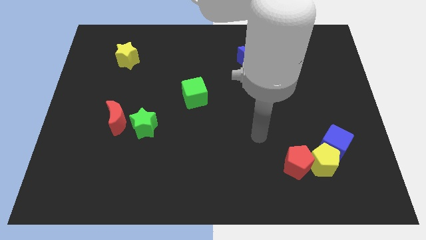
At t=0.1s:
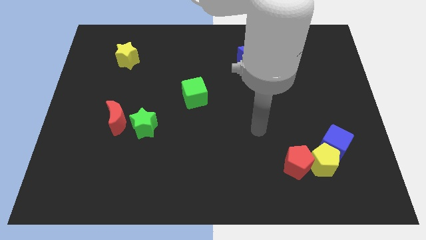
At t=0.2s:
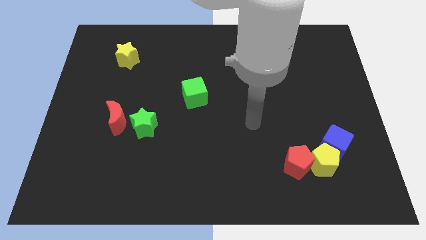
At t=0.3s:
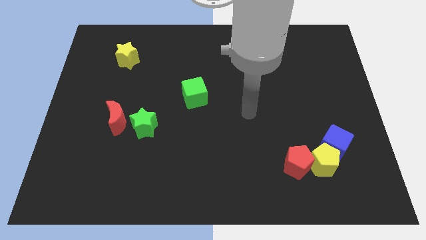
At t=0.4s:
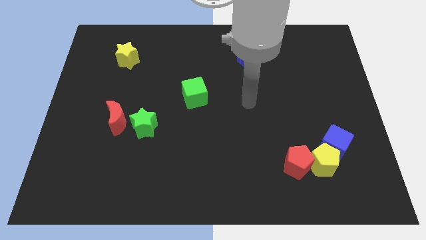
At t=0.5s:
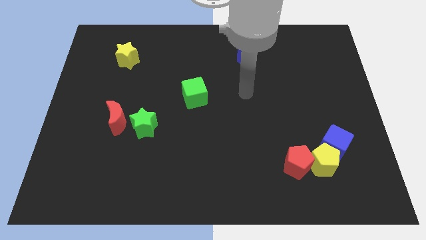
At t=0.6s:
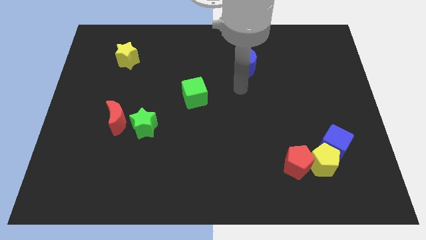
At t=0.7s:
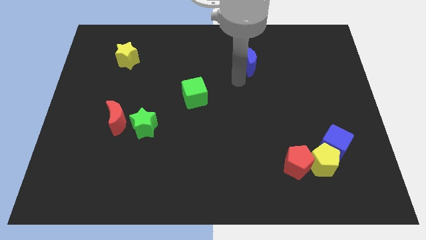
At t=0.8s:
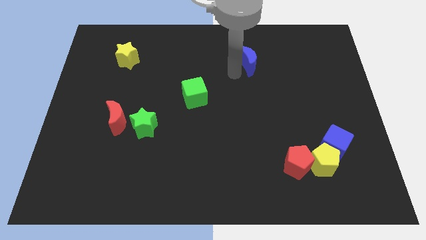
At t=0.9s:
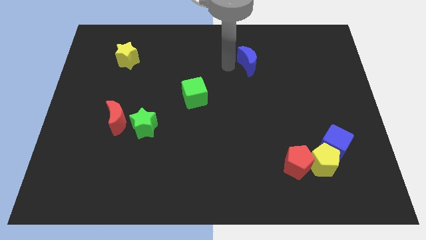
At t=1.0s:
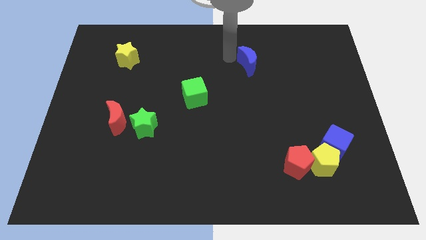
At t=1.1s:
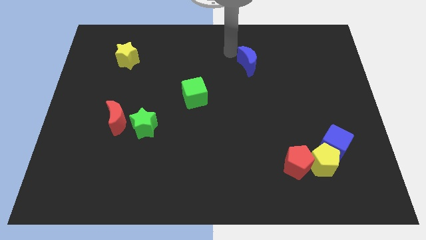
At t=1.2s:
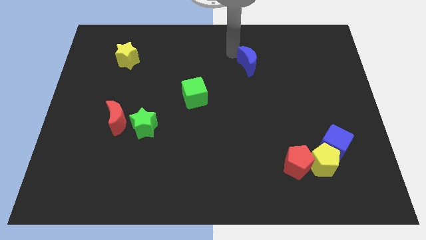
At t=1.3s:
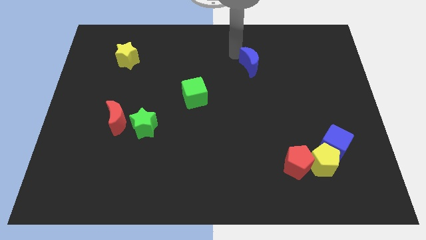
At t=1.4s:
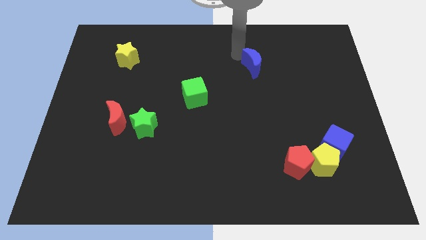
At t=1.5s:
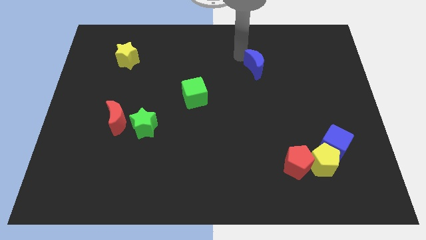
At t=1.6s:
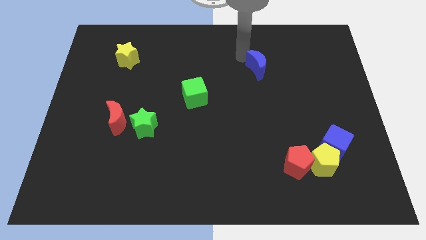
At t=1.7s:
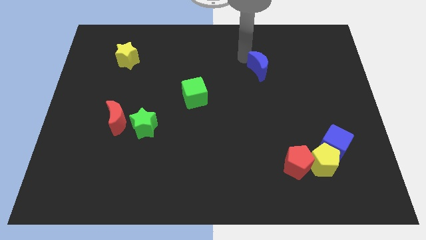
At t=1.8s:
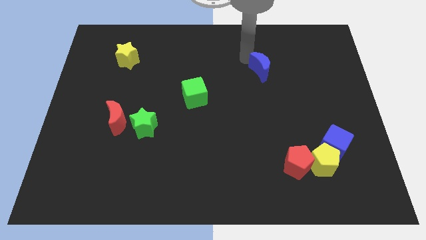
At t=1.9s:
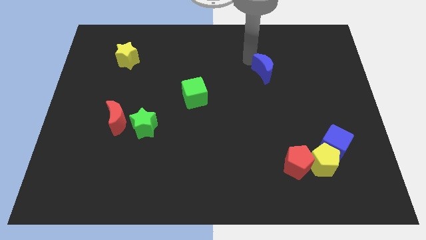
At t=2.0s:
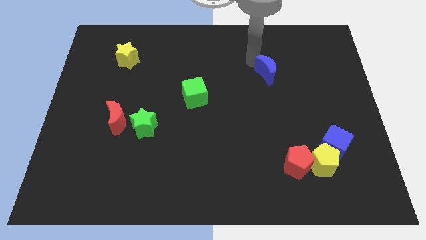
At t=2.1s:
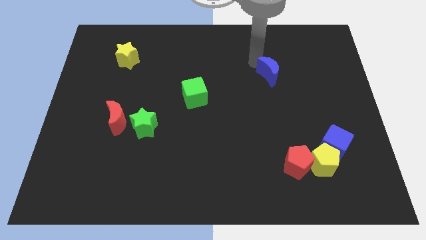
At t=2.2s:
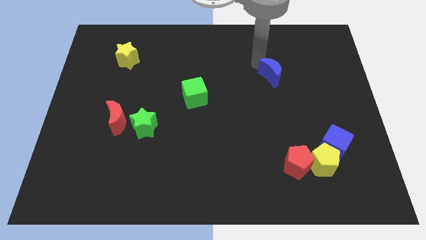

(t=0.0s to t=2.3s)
move the blue moon down and to the right a bit

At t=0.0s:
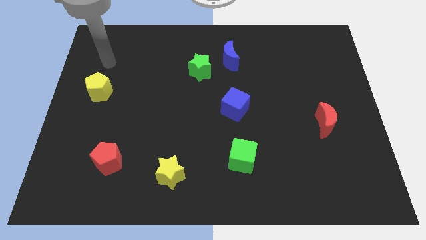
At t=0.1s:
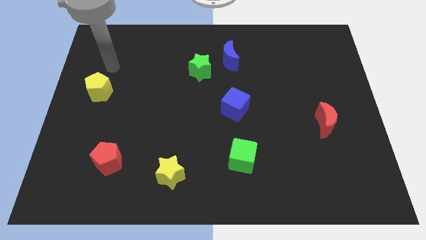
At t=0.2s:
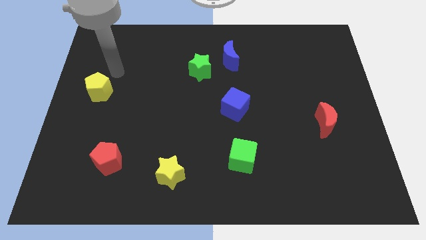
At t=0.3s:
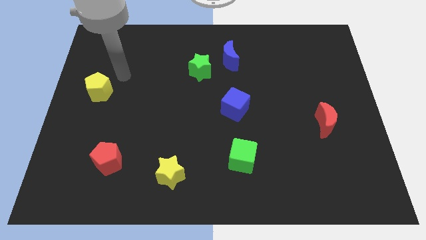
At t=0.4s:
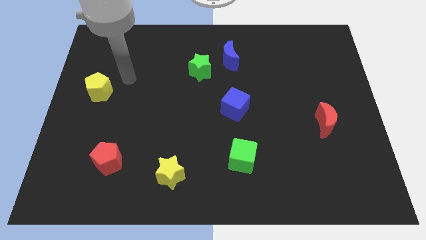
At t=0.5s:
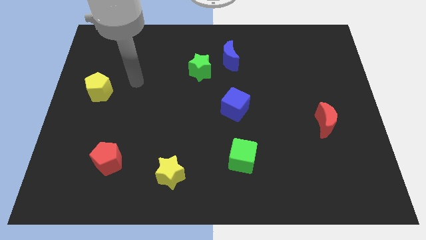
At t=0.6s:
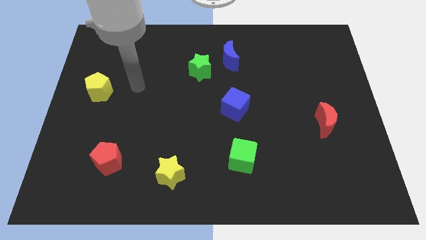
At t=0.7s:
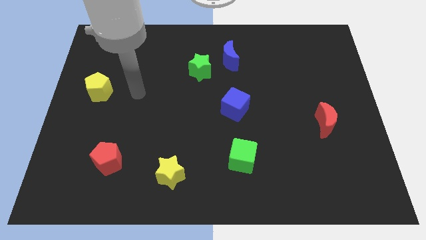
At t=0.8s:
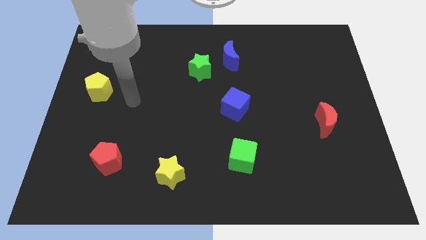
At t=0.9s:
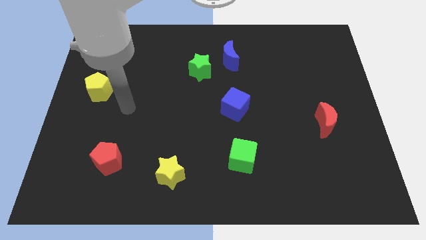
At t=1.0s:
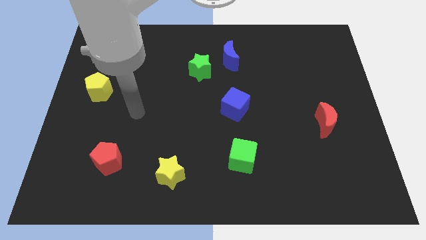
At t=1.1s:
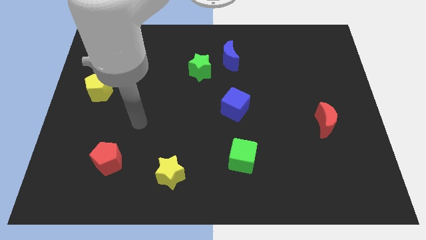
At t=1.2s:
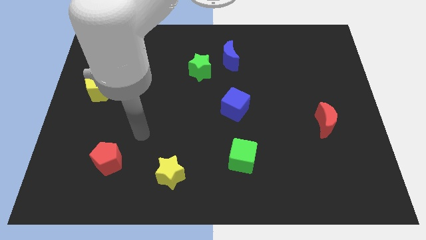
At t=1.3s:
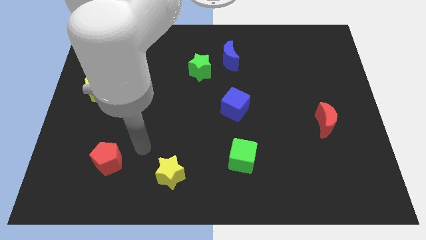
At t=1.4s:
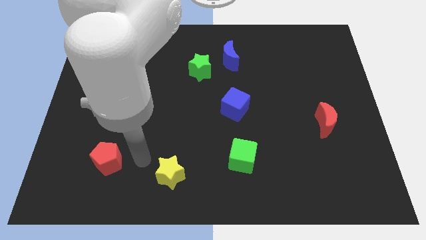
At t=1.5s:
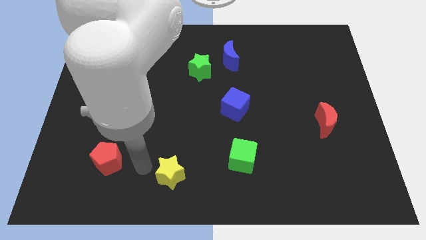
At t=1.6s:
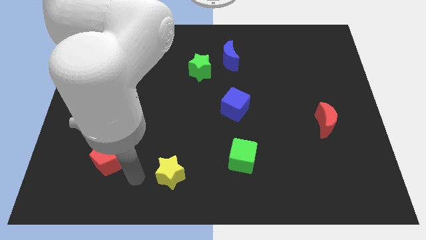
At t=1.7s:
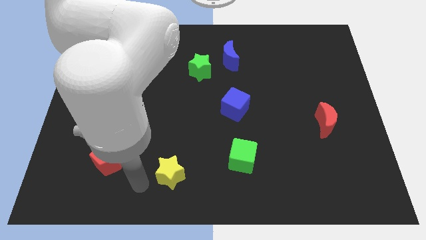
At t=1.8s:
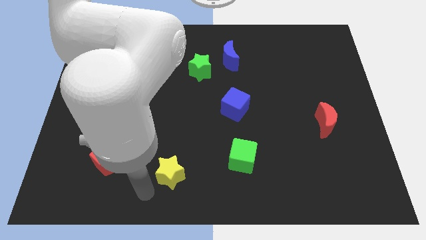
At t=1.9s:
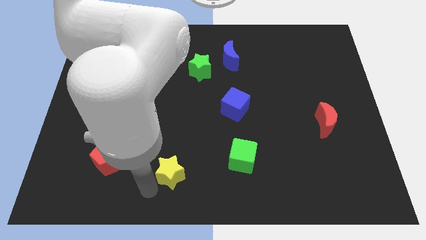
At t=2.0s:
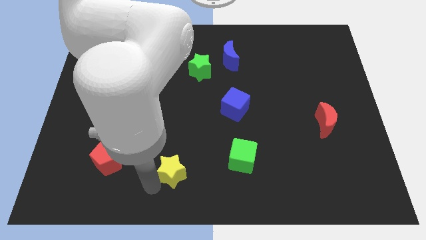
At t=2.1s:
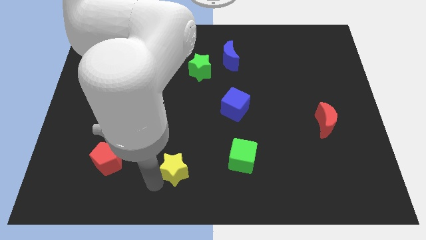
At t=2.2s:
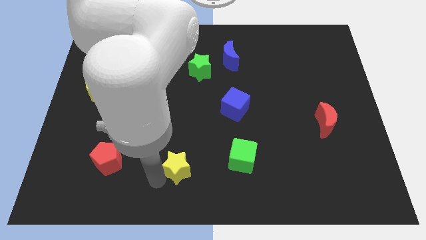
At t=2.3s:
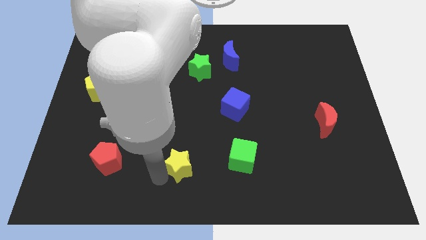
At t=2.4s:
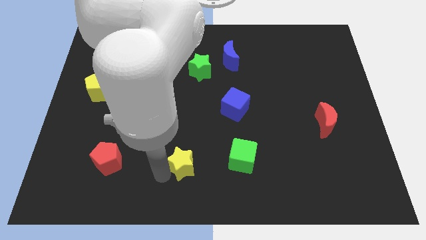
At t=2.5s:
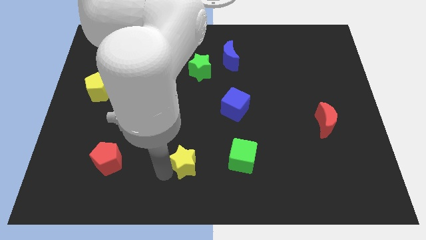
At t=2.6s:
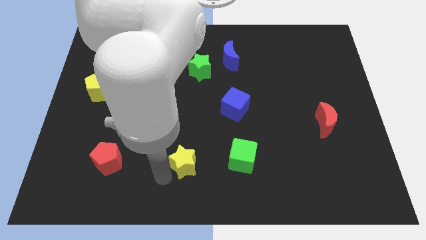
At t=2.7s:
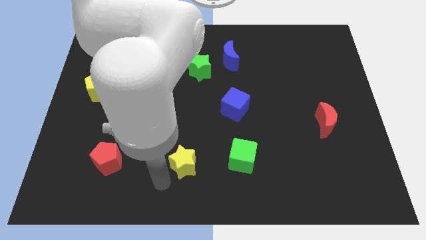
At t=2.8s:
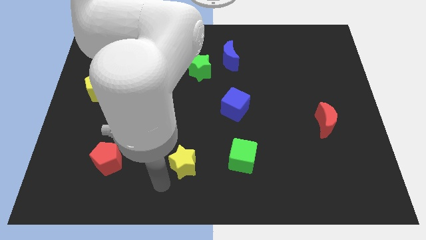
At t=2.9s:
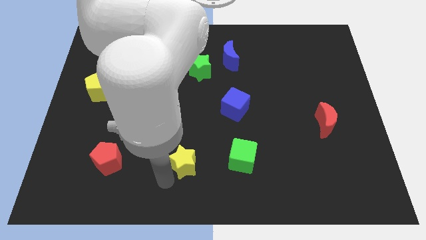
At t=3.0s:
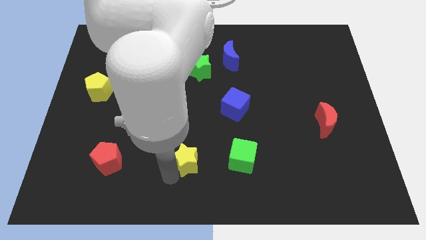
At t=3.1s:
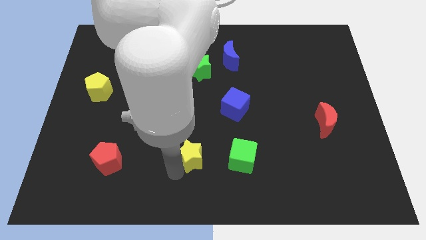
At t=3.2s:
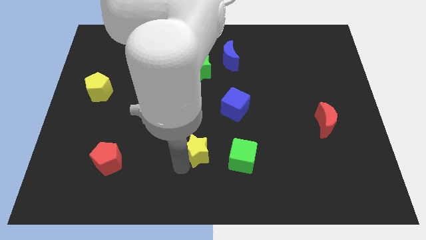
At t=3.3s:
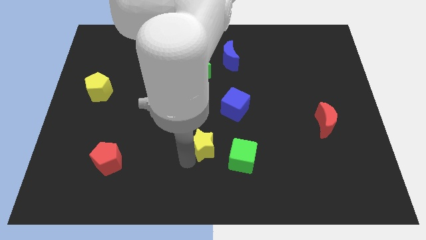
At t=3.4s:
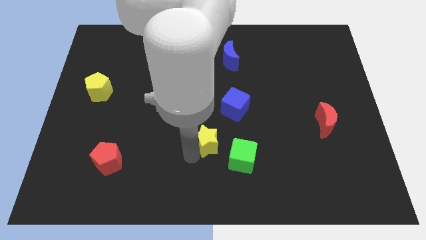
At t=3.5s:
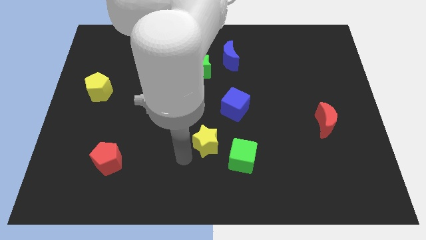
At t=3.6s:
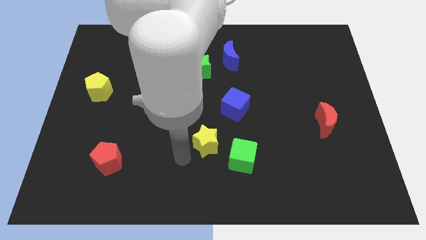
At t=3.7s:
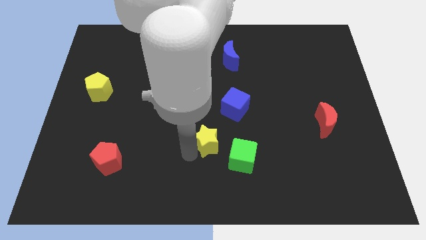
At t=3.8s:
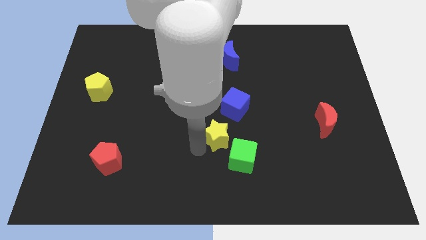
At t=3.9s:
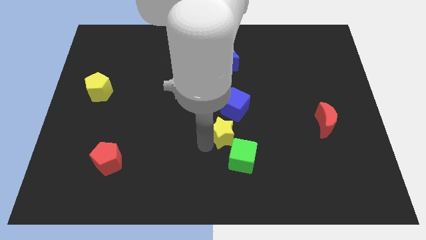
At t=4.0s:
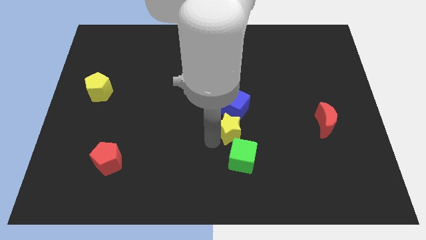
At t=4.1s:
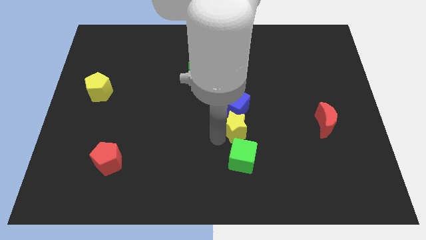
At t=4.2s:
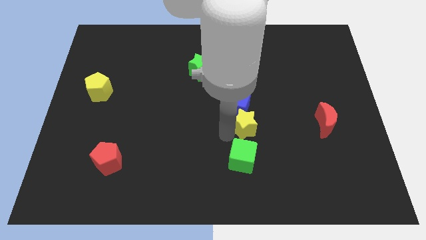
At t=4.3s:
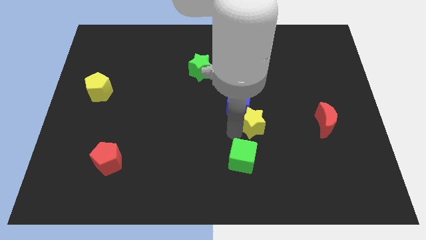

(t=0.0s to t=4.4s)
slide the yellow star upwards and to the right

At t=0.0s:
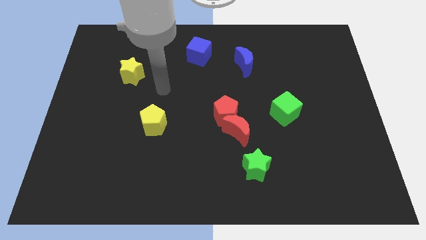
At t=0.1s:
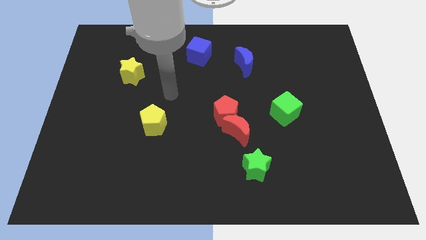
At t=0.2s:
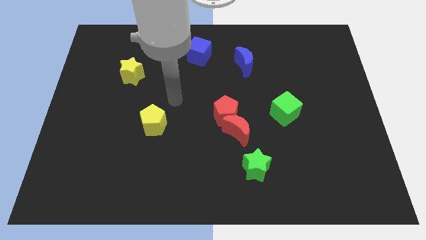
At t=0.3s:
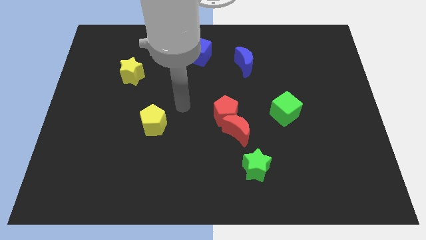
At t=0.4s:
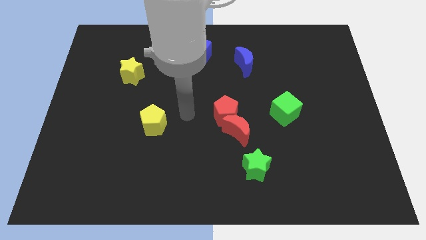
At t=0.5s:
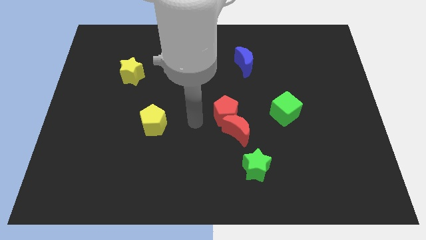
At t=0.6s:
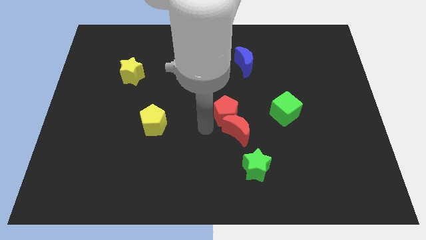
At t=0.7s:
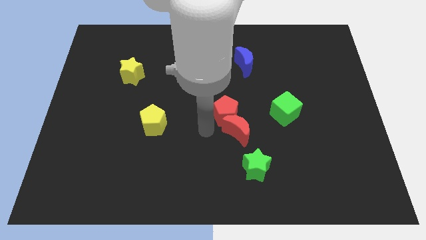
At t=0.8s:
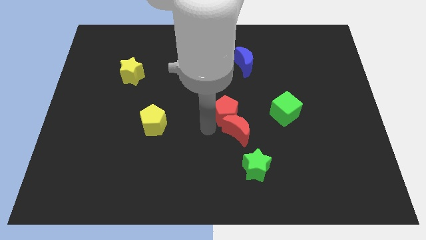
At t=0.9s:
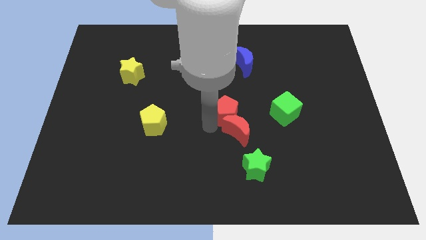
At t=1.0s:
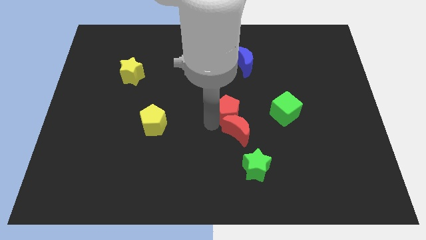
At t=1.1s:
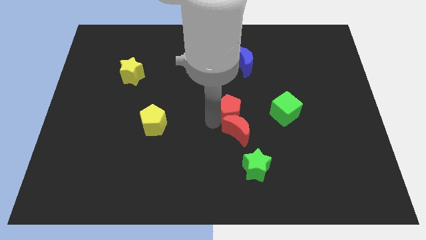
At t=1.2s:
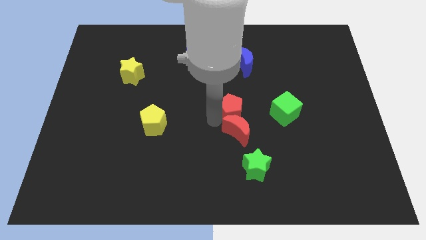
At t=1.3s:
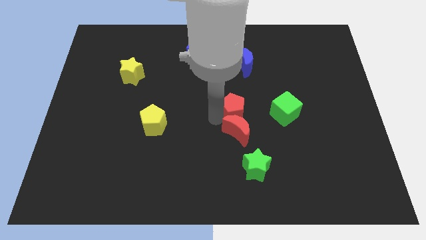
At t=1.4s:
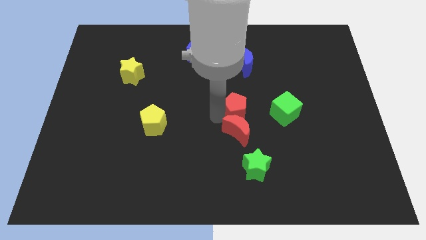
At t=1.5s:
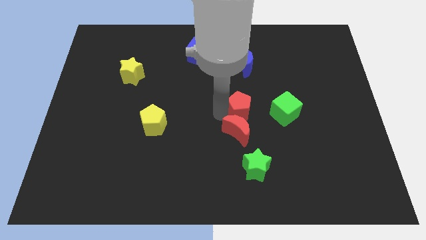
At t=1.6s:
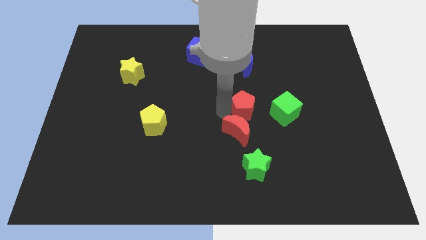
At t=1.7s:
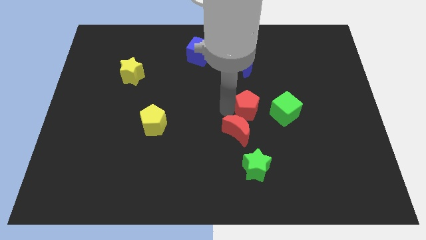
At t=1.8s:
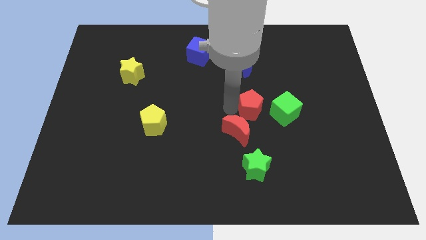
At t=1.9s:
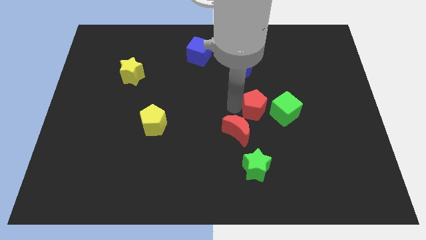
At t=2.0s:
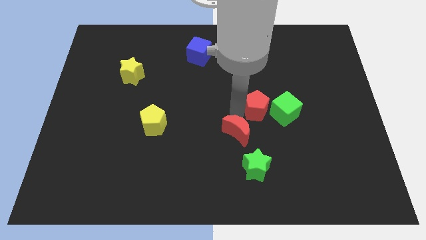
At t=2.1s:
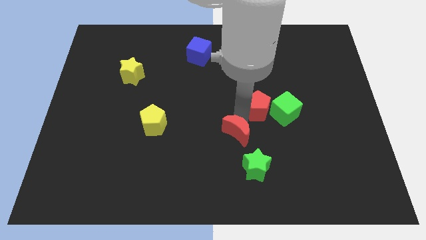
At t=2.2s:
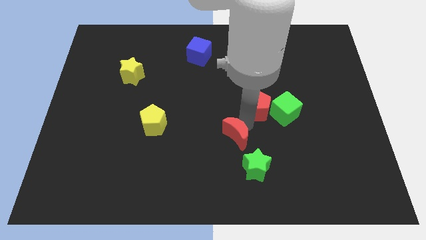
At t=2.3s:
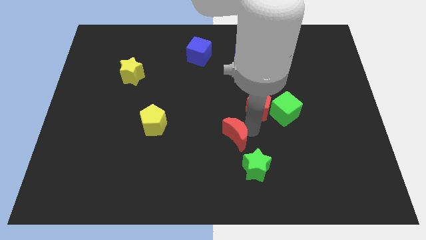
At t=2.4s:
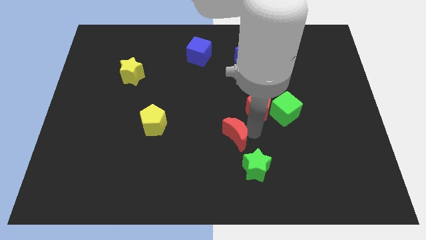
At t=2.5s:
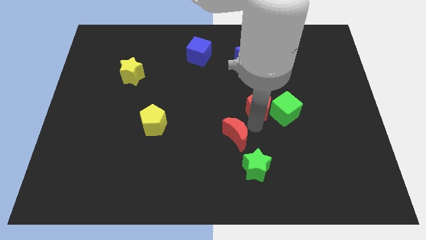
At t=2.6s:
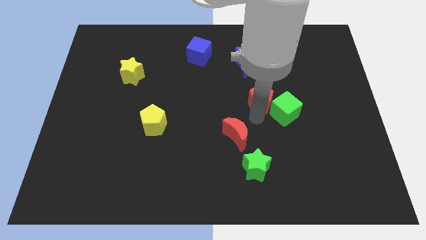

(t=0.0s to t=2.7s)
push the red pentagon up and right diagonally somewhat
